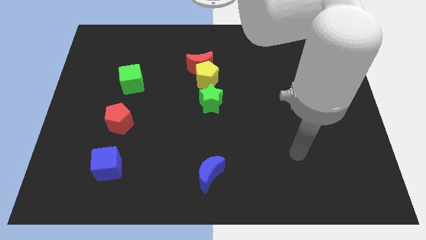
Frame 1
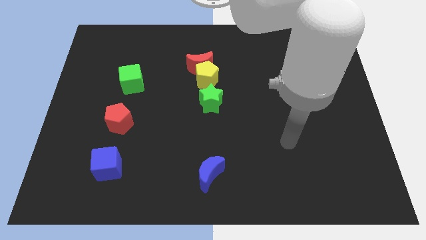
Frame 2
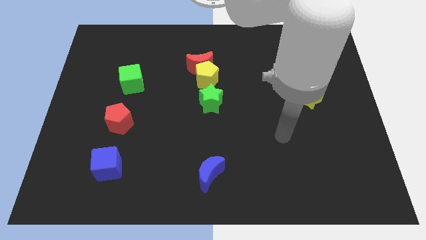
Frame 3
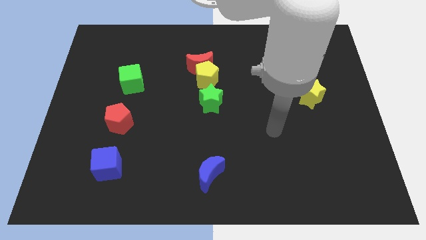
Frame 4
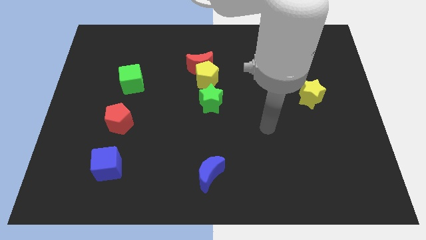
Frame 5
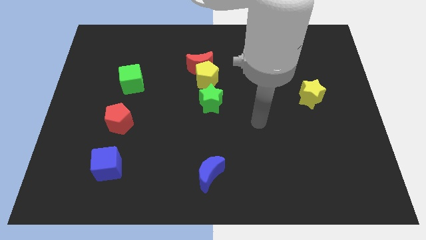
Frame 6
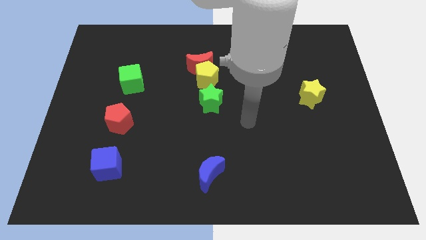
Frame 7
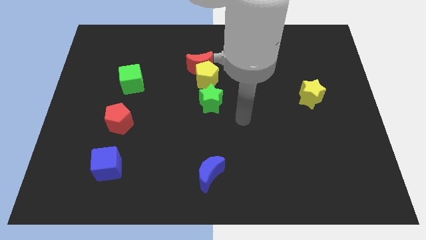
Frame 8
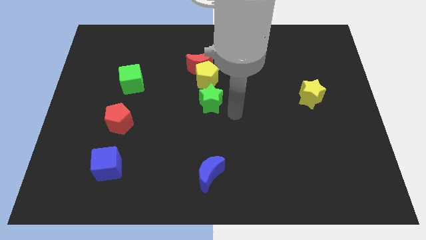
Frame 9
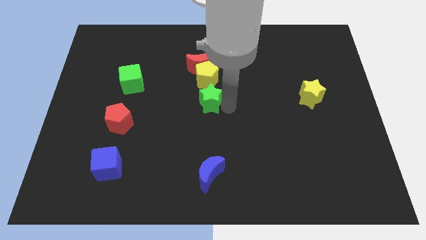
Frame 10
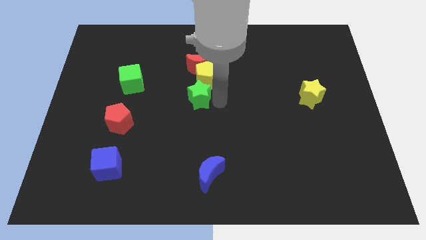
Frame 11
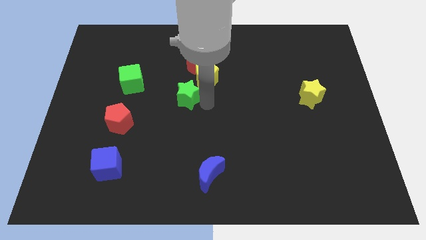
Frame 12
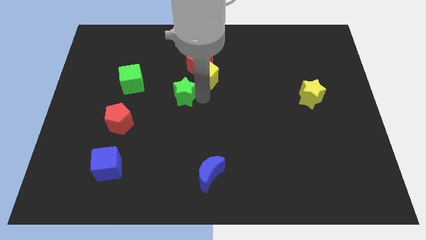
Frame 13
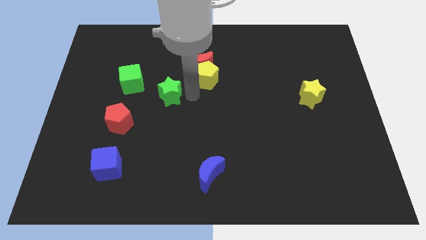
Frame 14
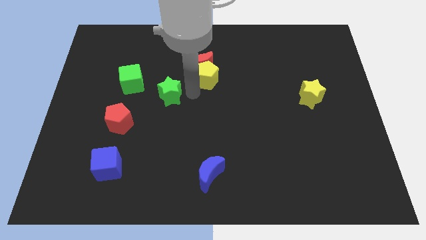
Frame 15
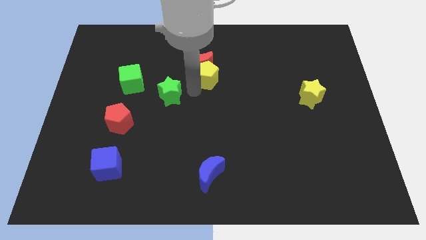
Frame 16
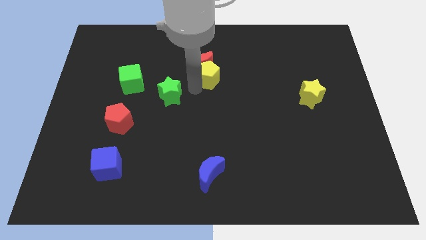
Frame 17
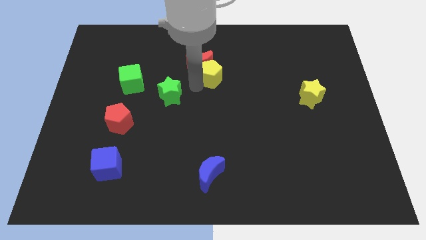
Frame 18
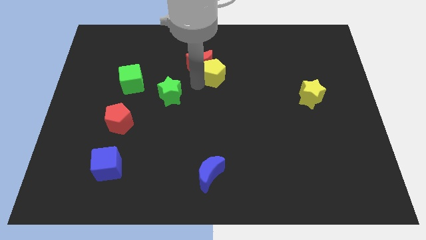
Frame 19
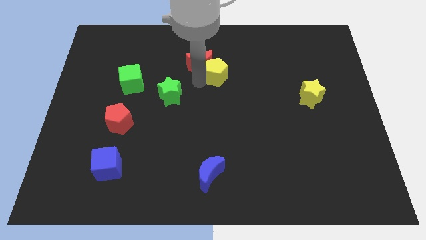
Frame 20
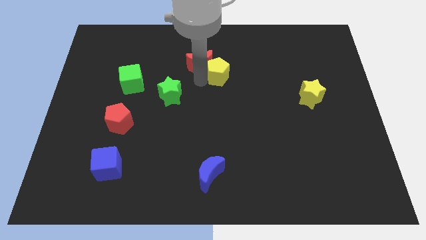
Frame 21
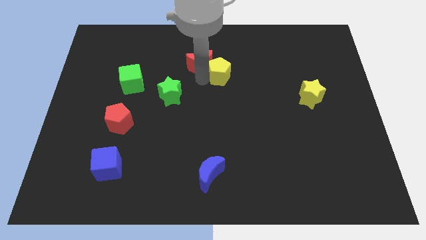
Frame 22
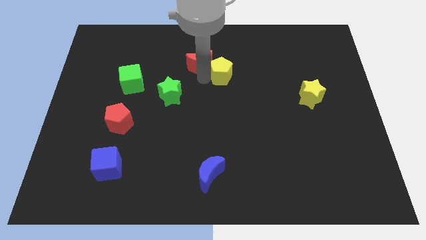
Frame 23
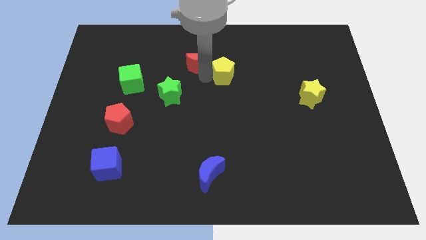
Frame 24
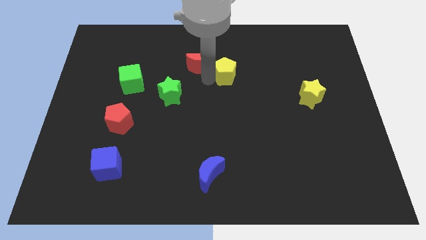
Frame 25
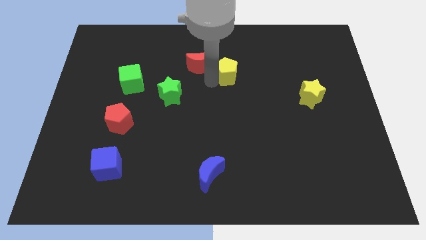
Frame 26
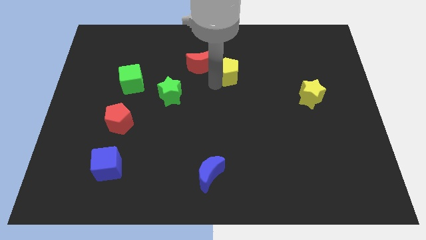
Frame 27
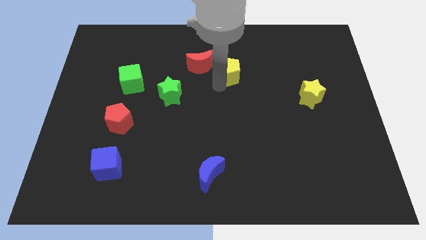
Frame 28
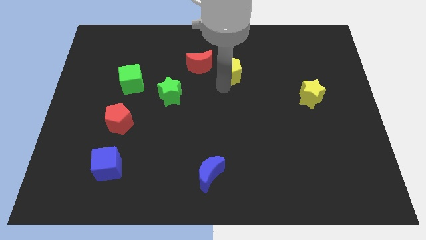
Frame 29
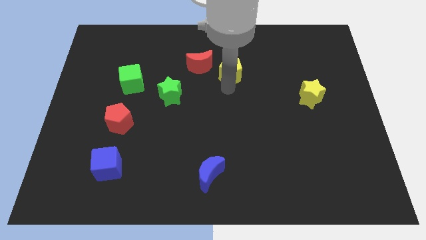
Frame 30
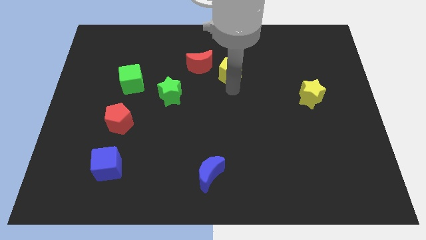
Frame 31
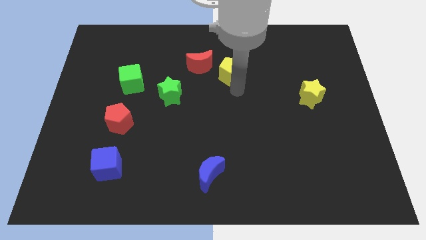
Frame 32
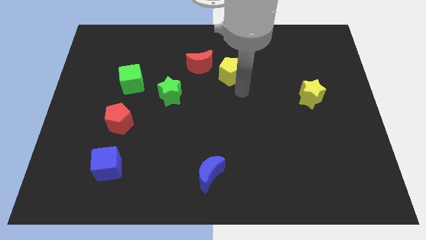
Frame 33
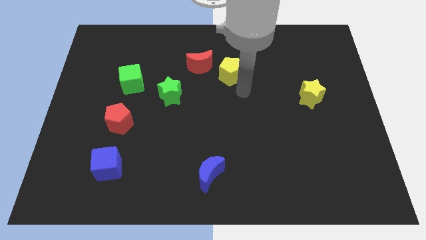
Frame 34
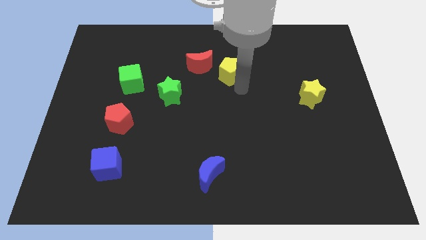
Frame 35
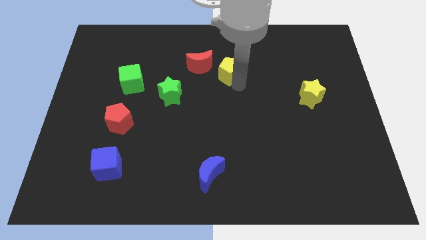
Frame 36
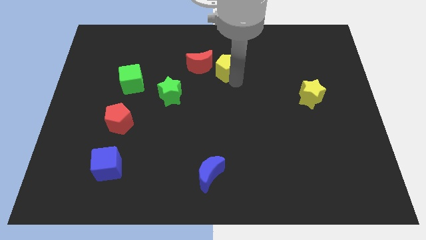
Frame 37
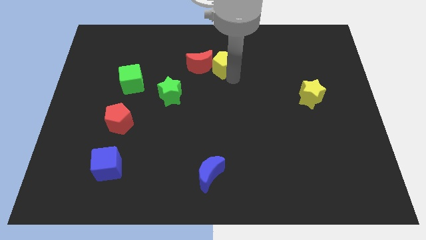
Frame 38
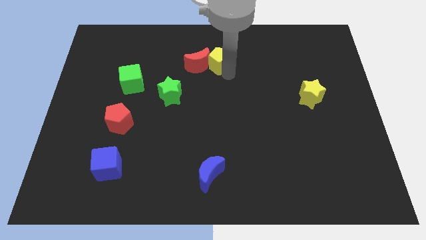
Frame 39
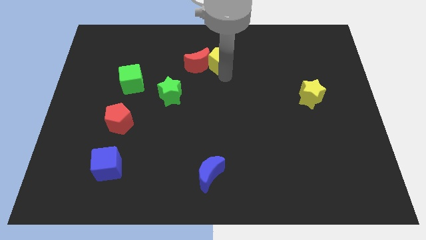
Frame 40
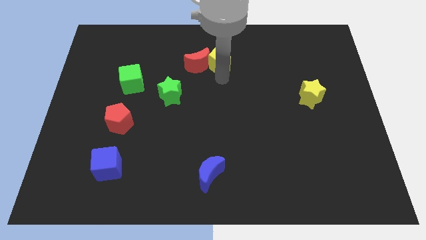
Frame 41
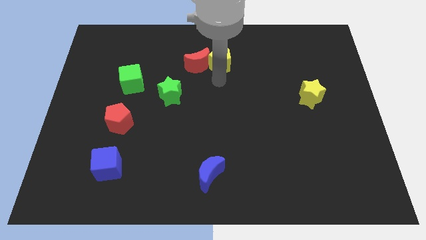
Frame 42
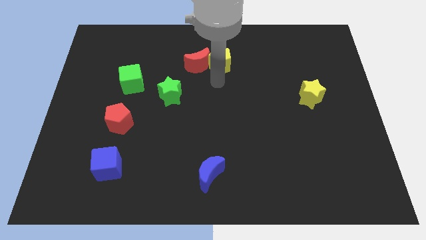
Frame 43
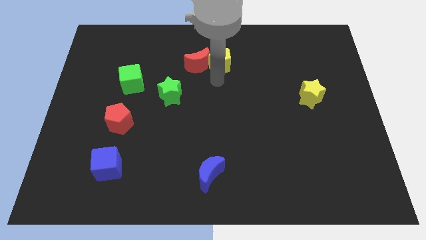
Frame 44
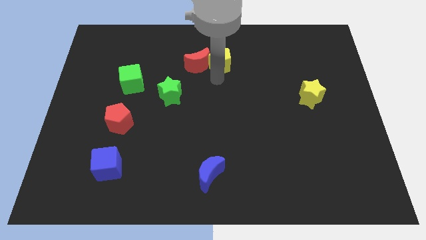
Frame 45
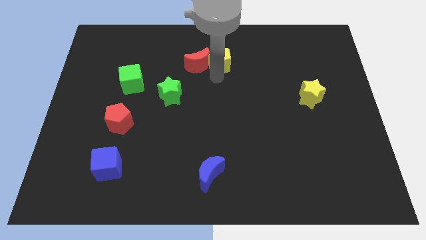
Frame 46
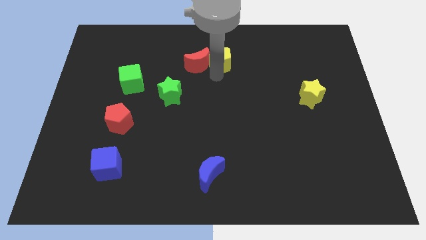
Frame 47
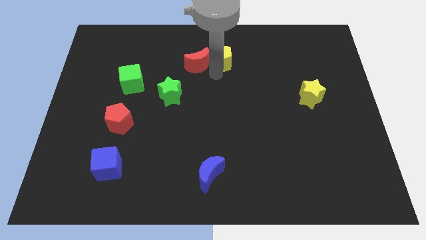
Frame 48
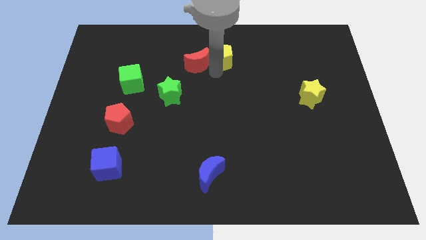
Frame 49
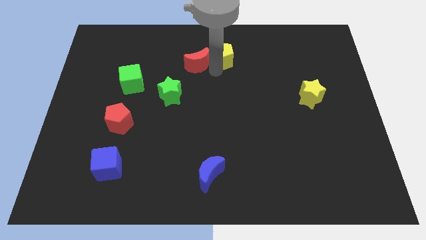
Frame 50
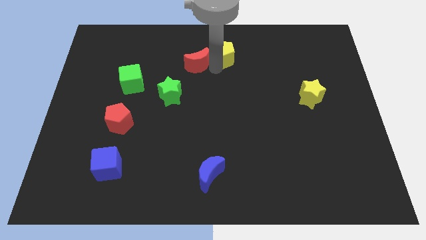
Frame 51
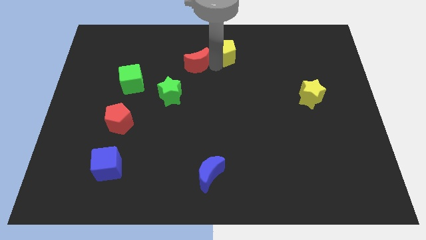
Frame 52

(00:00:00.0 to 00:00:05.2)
push the yellow pentagon to the top side

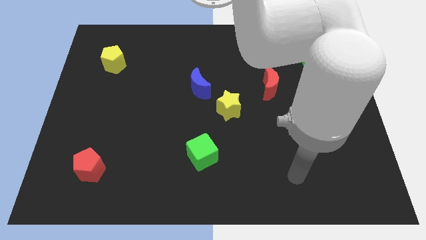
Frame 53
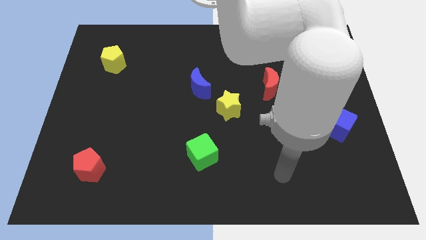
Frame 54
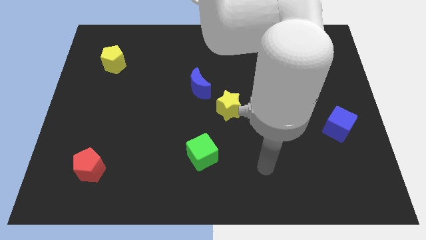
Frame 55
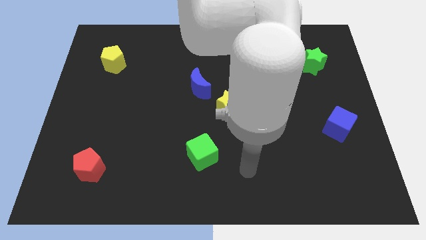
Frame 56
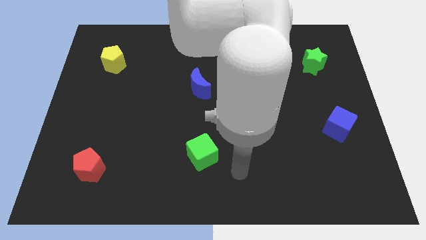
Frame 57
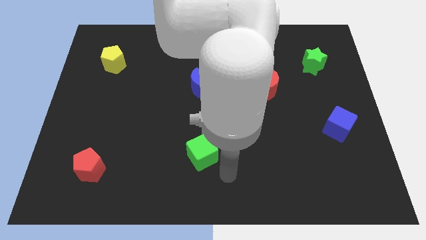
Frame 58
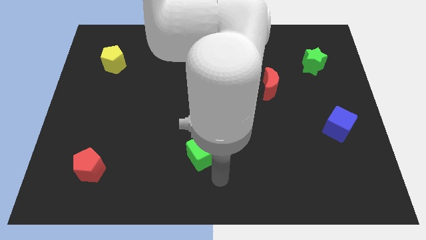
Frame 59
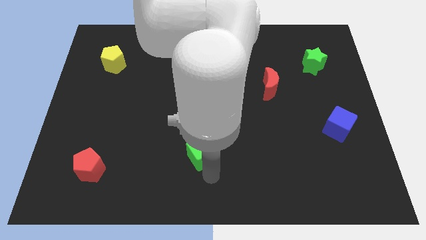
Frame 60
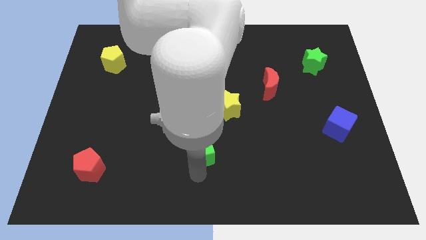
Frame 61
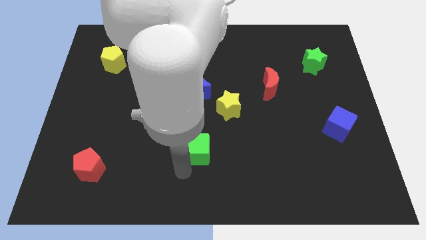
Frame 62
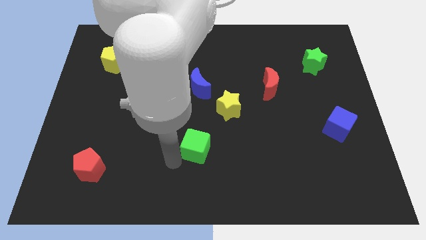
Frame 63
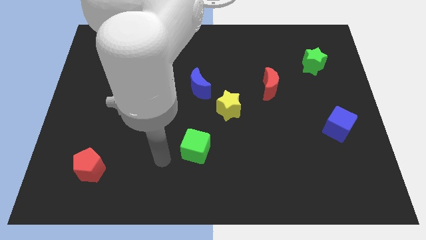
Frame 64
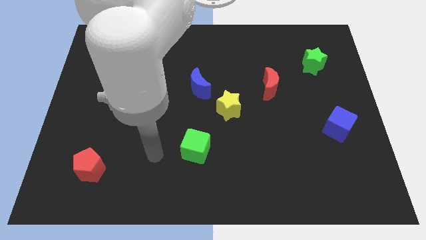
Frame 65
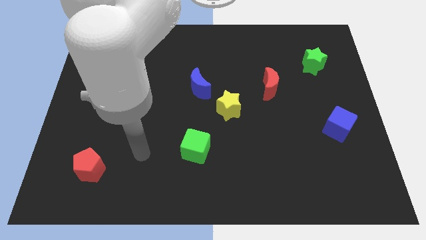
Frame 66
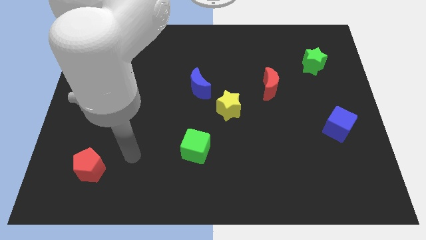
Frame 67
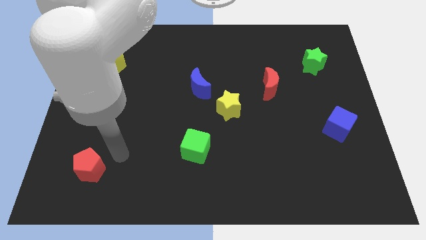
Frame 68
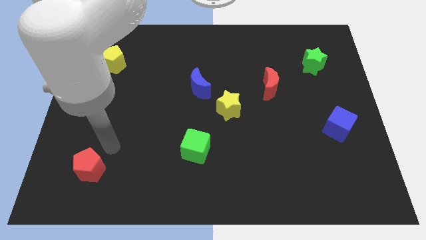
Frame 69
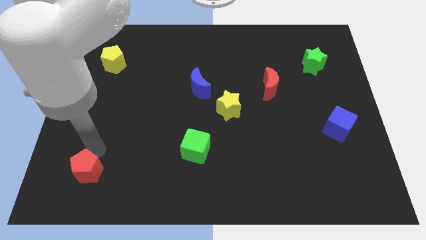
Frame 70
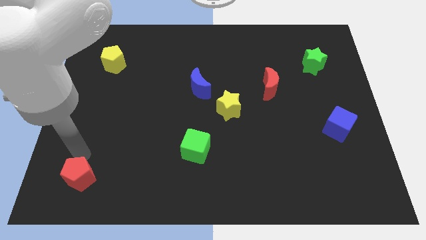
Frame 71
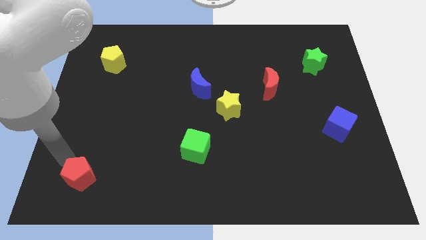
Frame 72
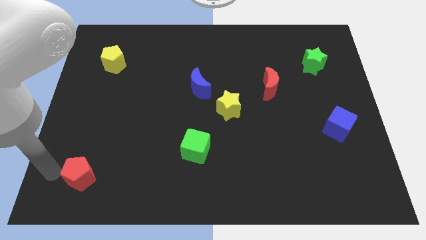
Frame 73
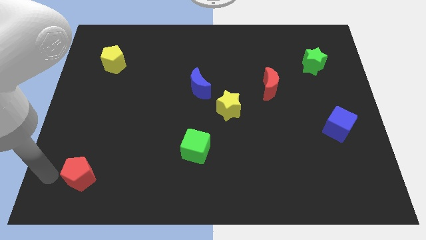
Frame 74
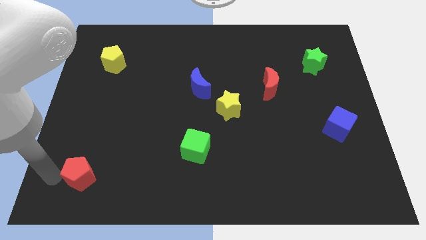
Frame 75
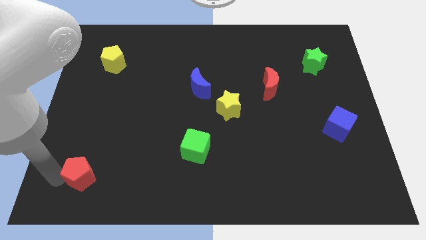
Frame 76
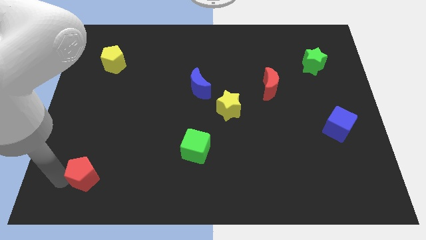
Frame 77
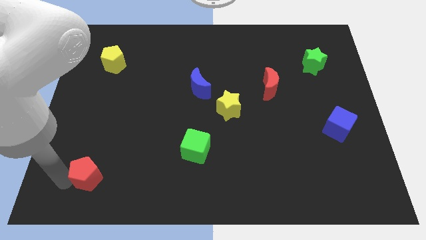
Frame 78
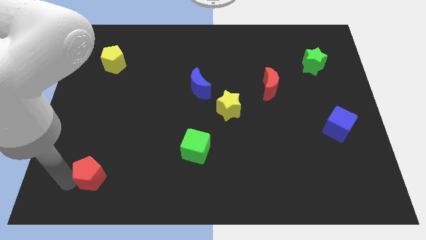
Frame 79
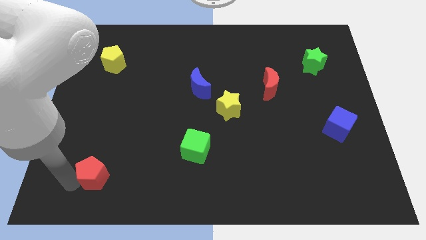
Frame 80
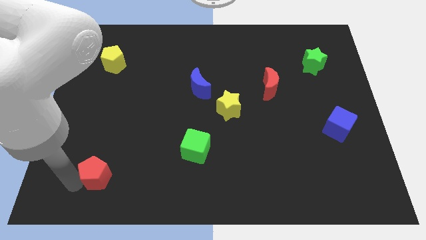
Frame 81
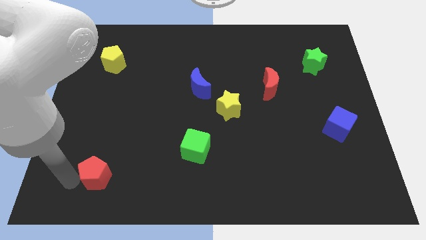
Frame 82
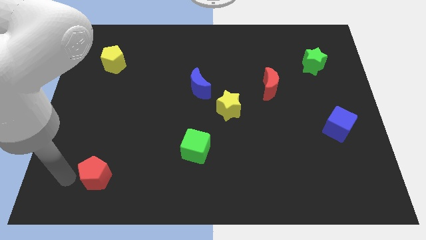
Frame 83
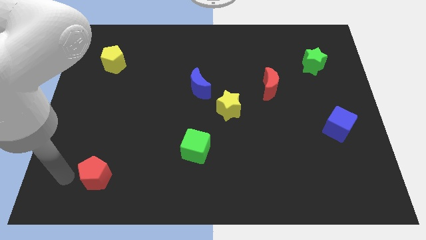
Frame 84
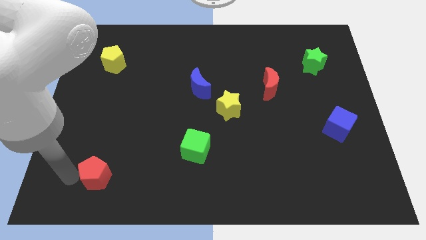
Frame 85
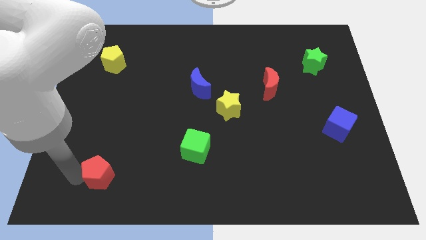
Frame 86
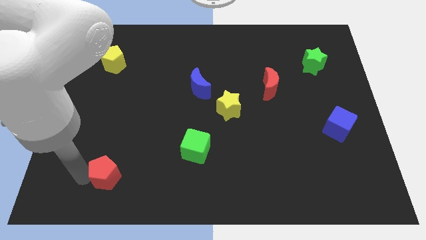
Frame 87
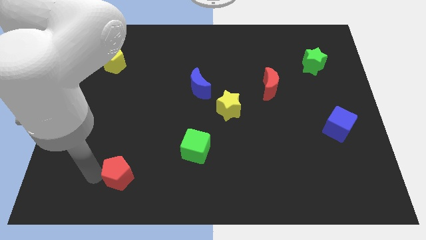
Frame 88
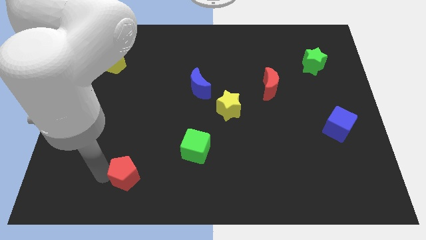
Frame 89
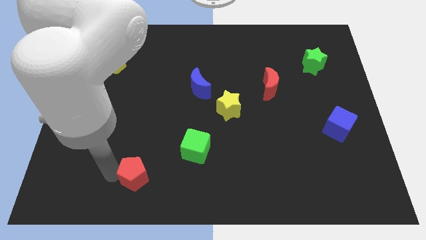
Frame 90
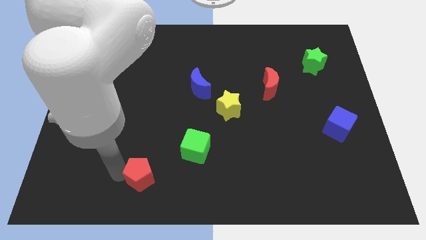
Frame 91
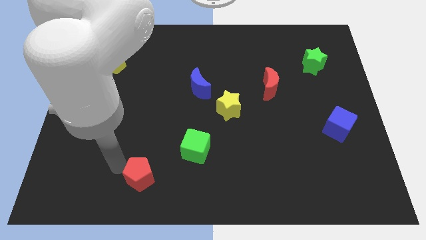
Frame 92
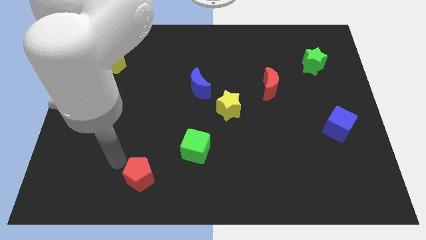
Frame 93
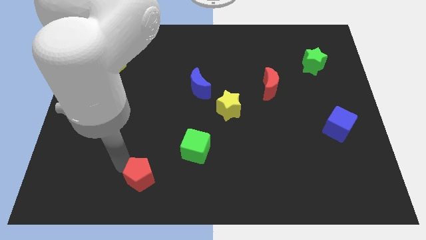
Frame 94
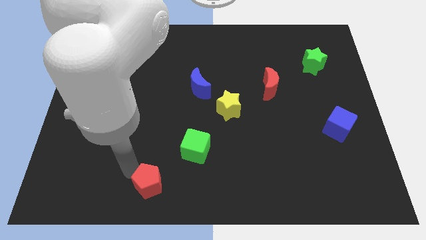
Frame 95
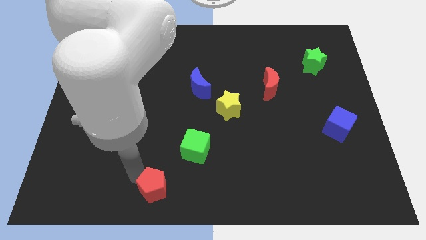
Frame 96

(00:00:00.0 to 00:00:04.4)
push the red pentagon to the bottom side
